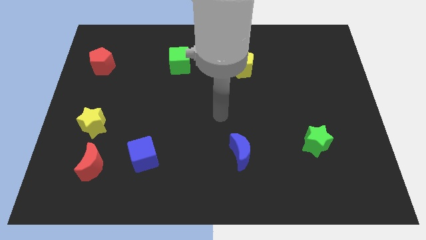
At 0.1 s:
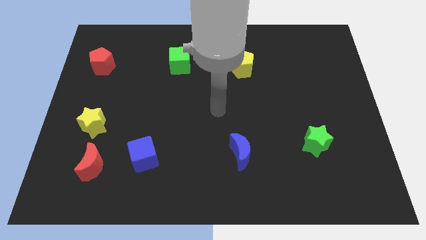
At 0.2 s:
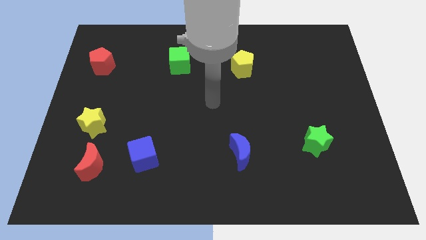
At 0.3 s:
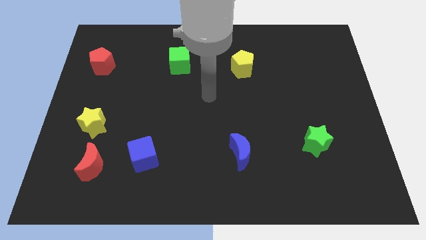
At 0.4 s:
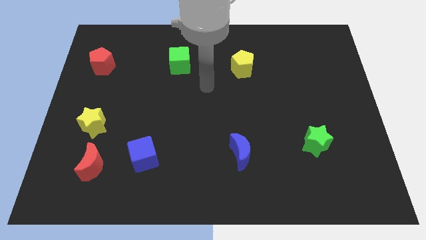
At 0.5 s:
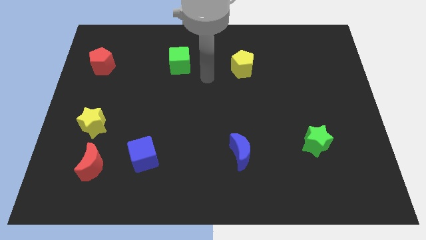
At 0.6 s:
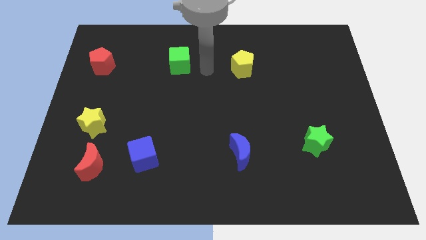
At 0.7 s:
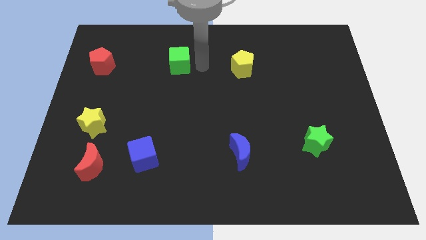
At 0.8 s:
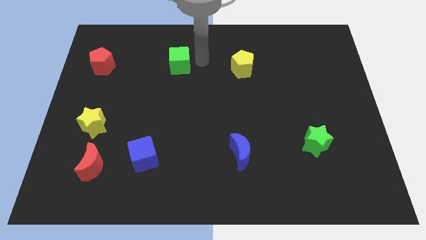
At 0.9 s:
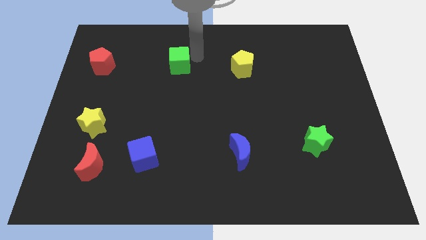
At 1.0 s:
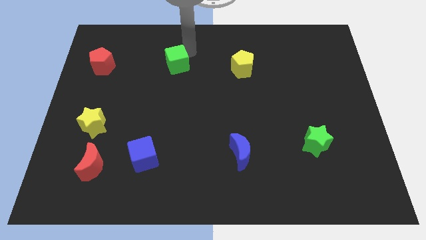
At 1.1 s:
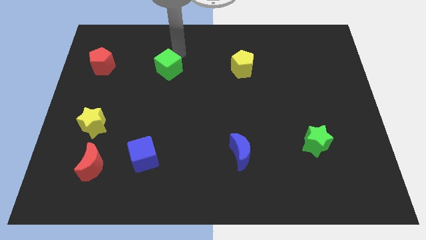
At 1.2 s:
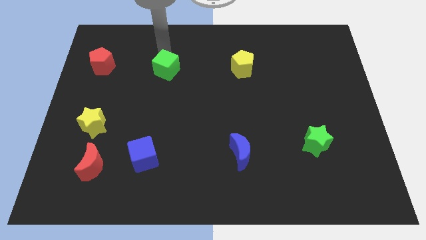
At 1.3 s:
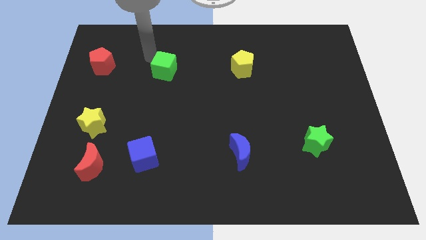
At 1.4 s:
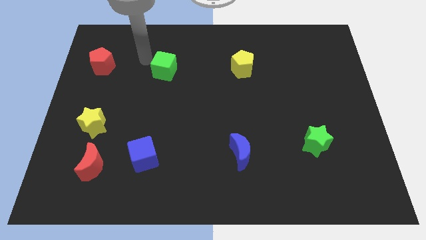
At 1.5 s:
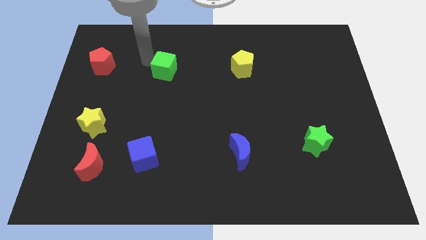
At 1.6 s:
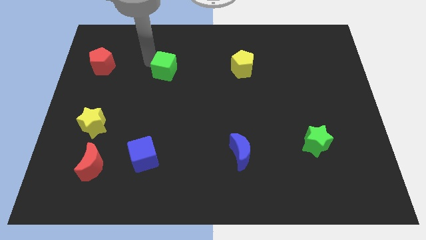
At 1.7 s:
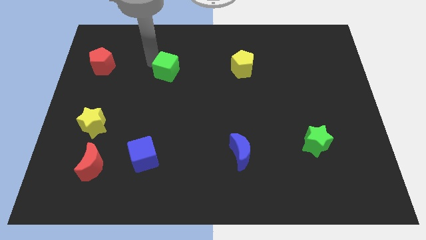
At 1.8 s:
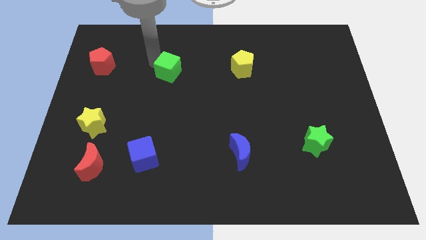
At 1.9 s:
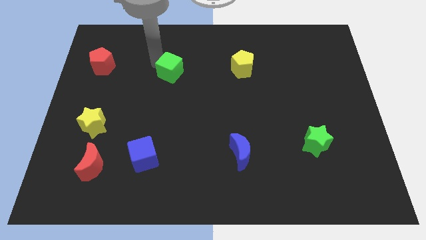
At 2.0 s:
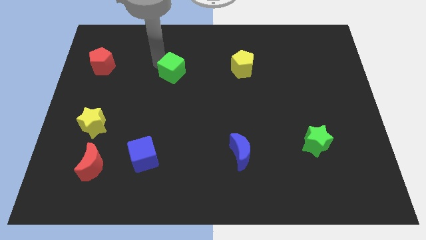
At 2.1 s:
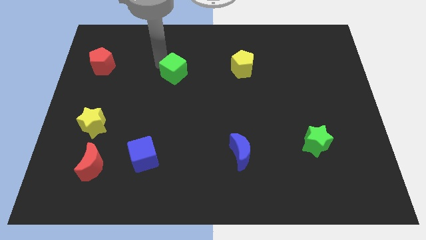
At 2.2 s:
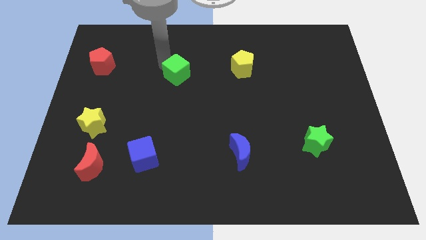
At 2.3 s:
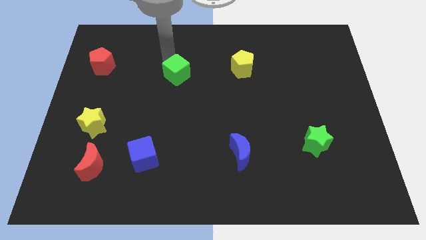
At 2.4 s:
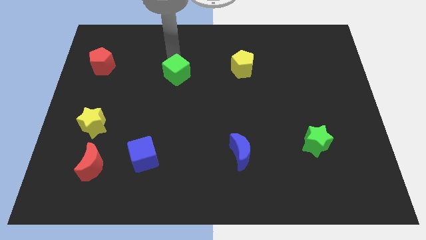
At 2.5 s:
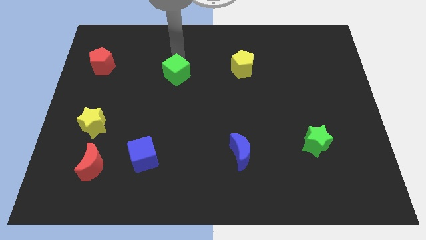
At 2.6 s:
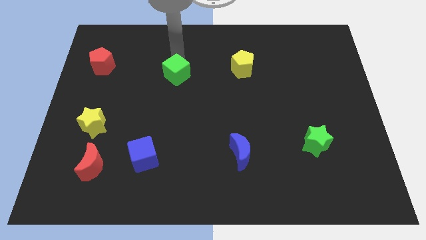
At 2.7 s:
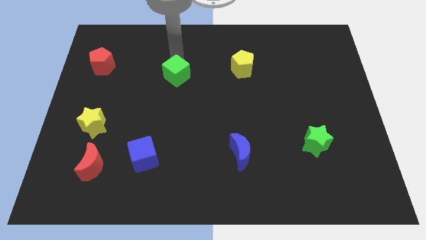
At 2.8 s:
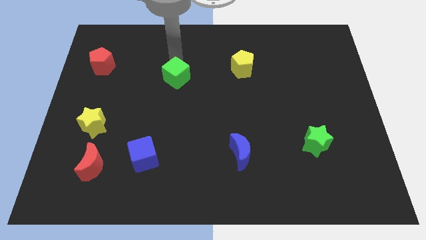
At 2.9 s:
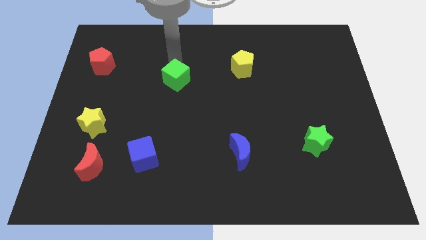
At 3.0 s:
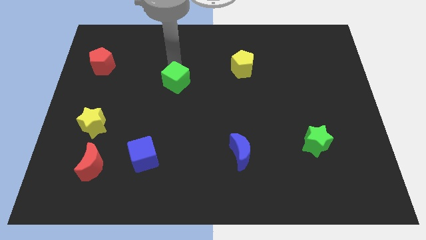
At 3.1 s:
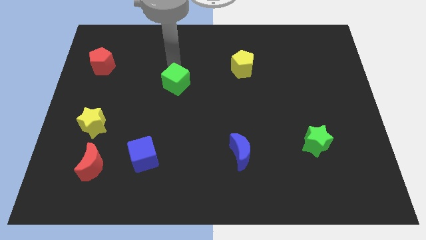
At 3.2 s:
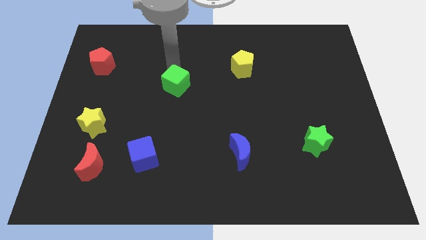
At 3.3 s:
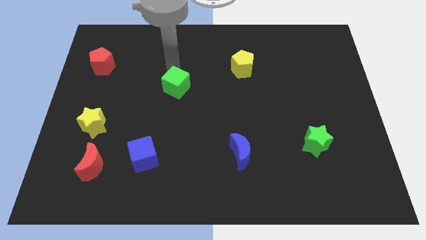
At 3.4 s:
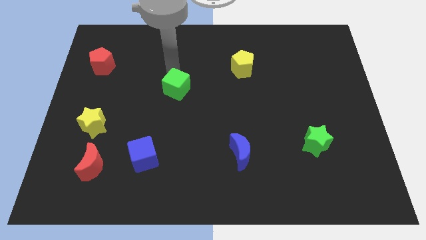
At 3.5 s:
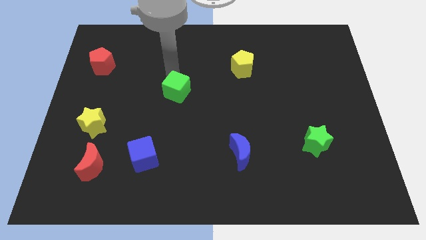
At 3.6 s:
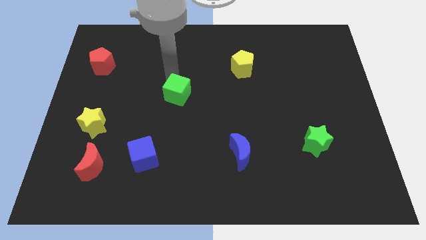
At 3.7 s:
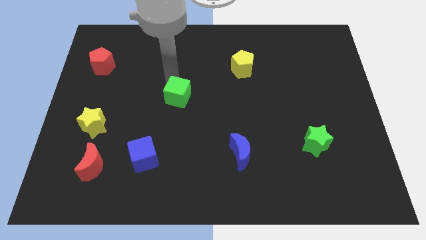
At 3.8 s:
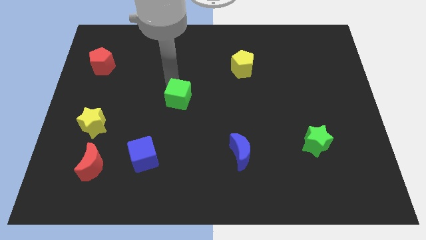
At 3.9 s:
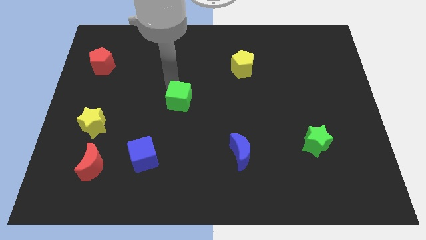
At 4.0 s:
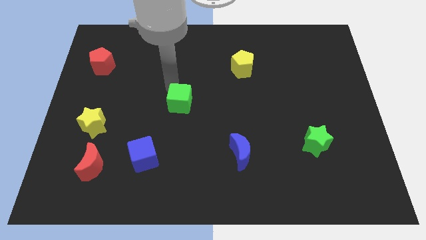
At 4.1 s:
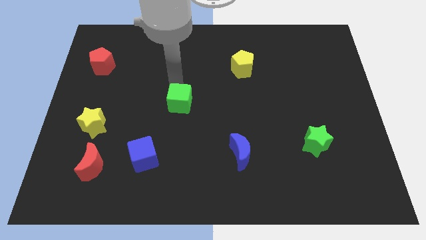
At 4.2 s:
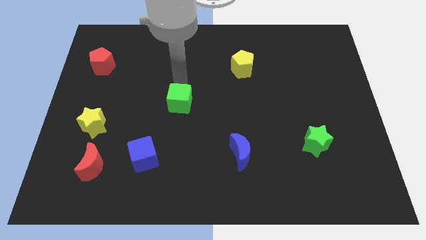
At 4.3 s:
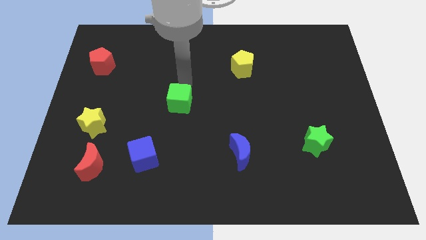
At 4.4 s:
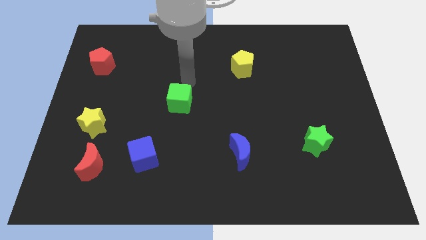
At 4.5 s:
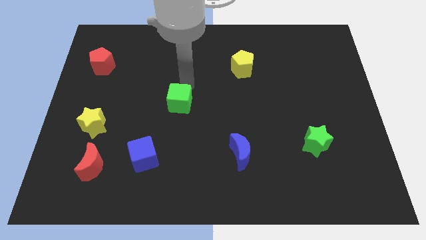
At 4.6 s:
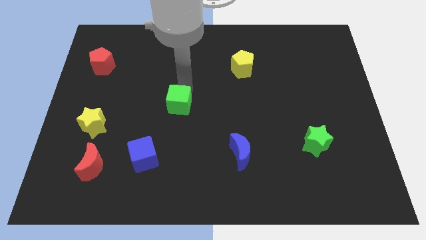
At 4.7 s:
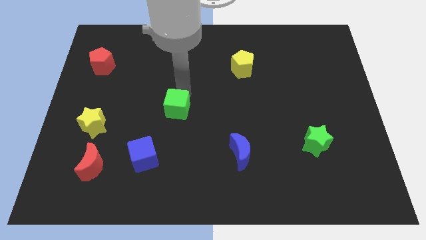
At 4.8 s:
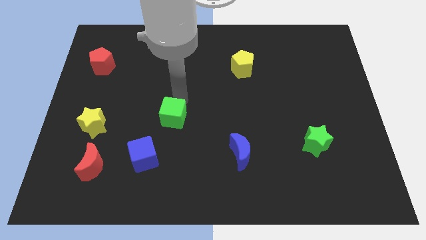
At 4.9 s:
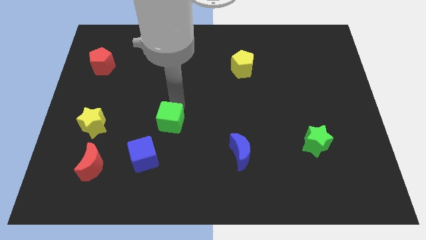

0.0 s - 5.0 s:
move the green cube diagonally up and to the right of the blue cube

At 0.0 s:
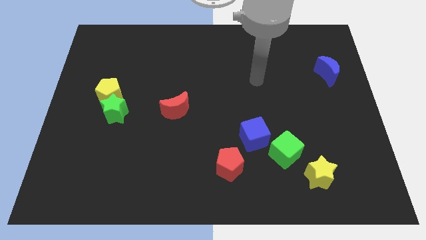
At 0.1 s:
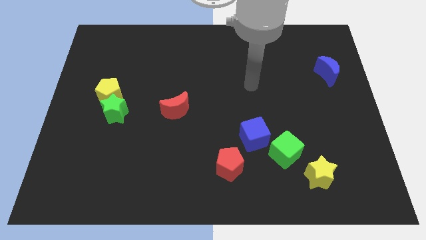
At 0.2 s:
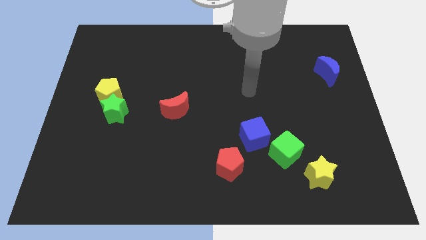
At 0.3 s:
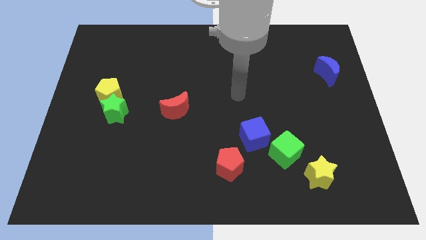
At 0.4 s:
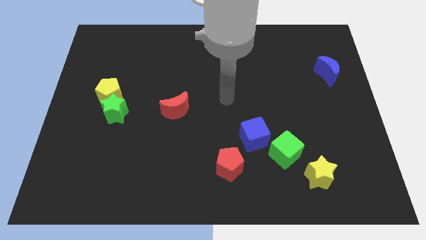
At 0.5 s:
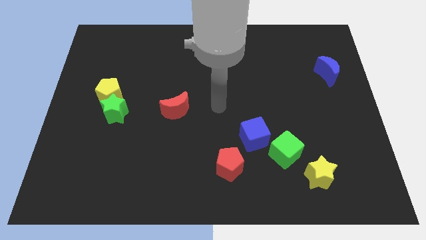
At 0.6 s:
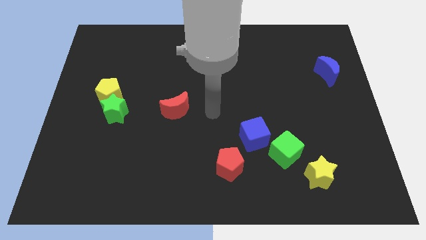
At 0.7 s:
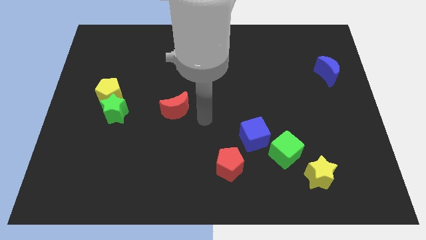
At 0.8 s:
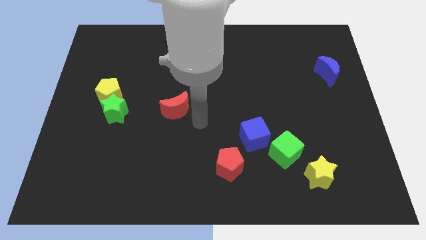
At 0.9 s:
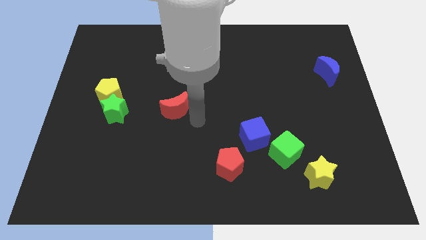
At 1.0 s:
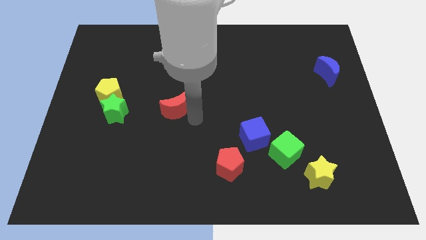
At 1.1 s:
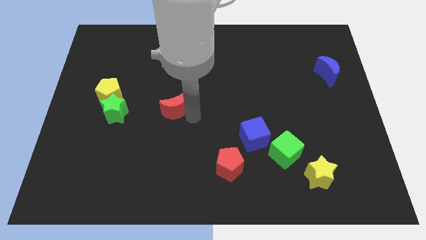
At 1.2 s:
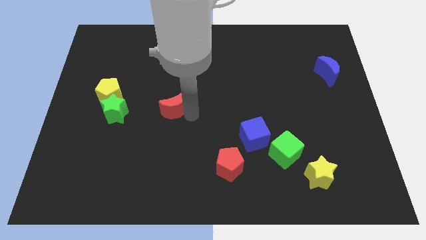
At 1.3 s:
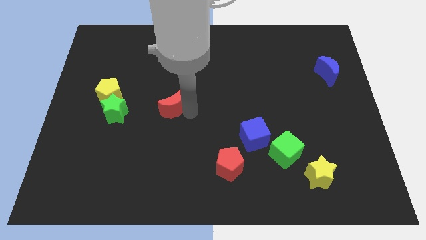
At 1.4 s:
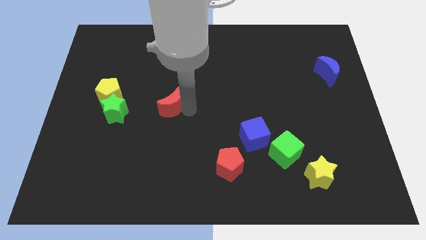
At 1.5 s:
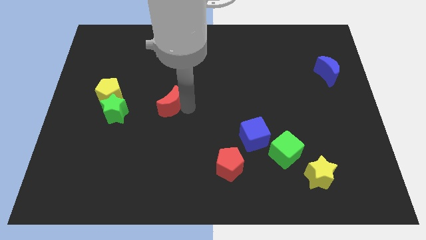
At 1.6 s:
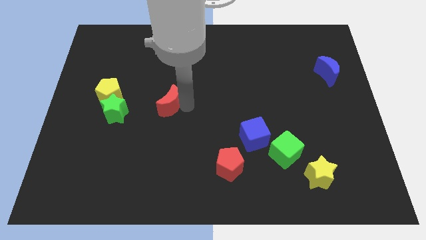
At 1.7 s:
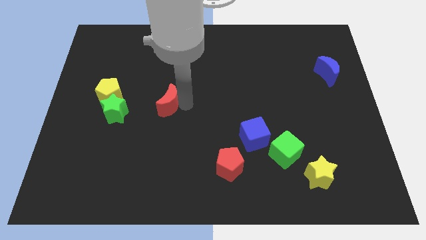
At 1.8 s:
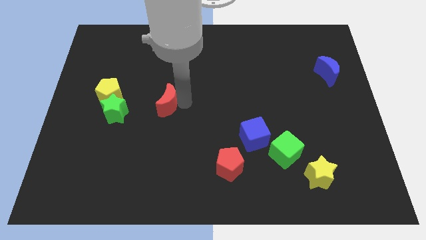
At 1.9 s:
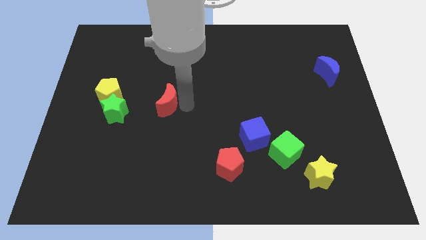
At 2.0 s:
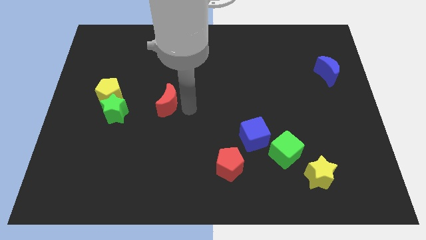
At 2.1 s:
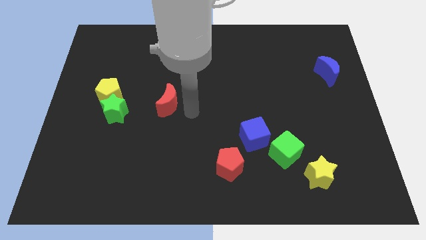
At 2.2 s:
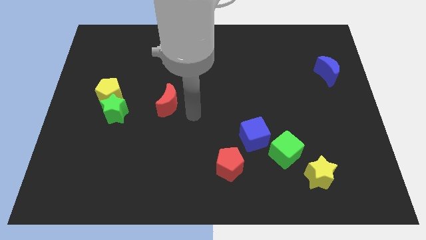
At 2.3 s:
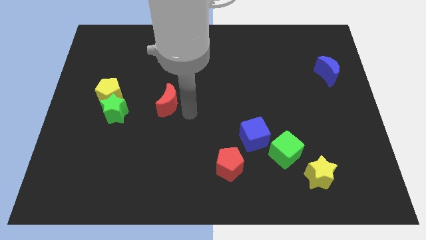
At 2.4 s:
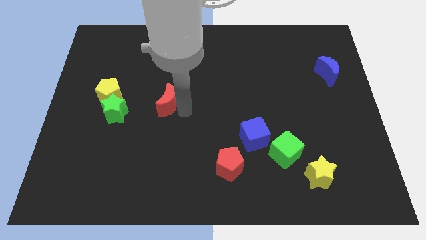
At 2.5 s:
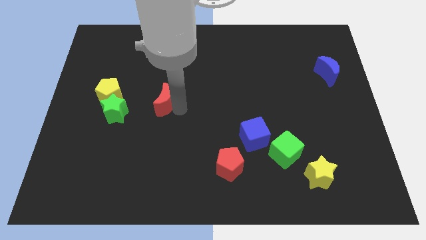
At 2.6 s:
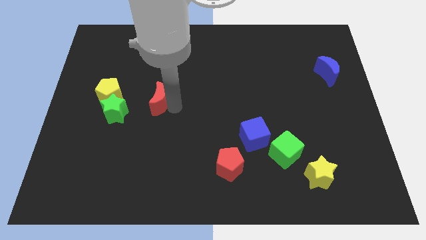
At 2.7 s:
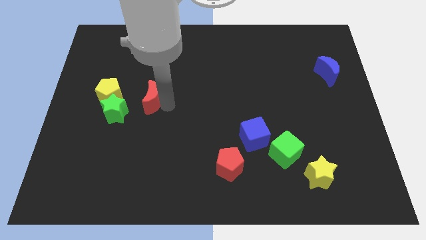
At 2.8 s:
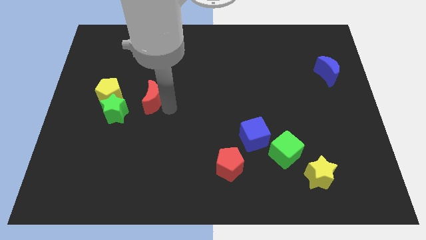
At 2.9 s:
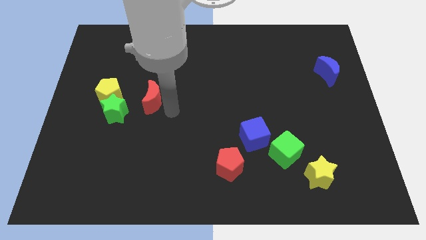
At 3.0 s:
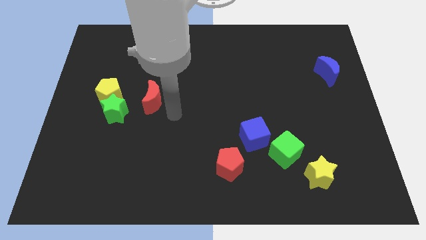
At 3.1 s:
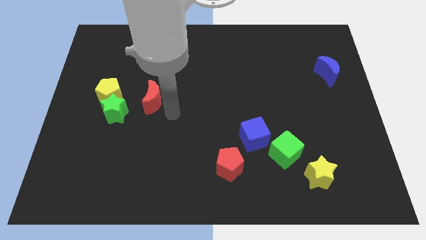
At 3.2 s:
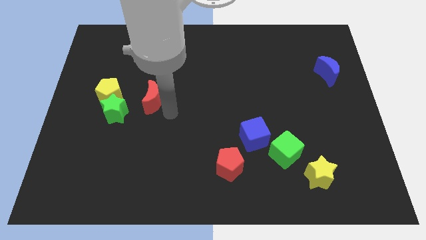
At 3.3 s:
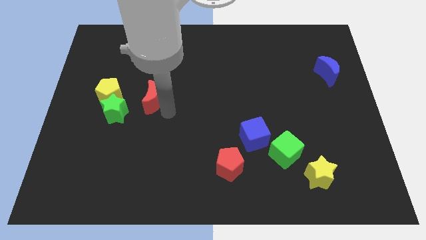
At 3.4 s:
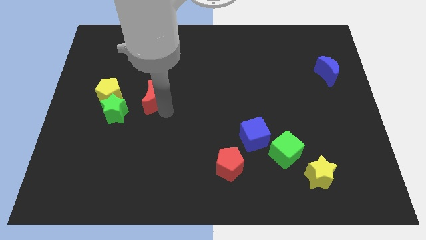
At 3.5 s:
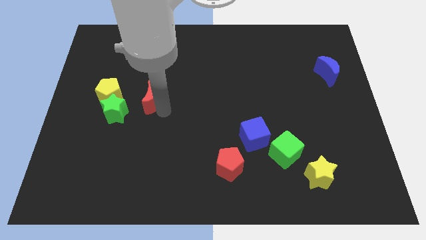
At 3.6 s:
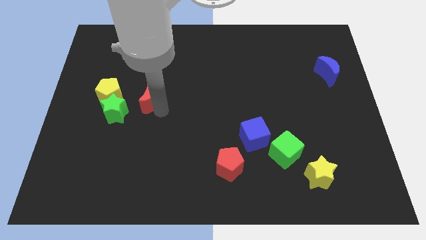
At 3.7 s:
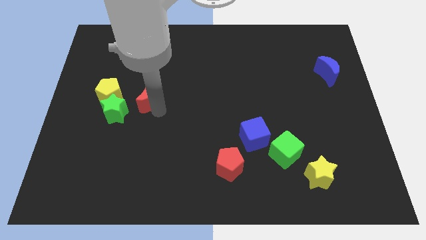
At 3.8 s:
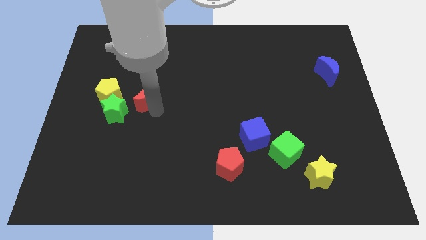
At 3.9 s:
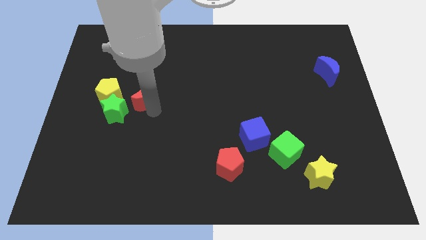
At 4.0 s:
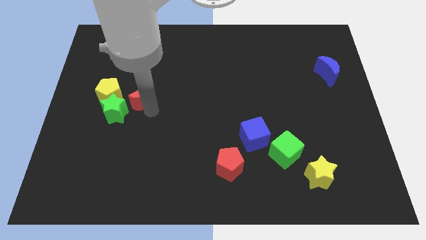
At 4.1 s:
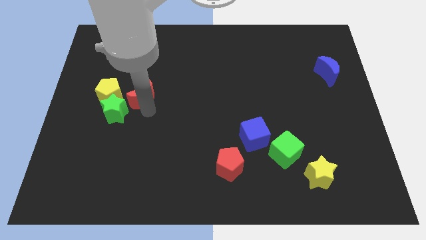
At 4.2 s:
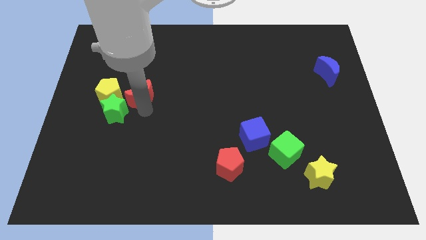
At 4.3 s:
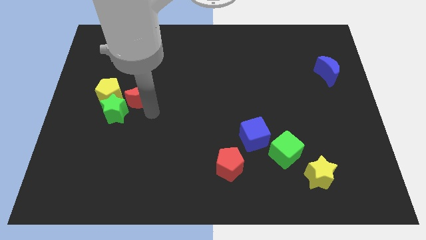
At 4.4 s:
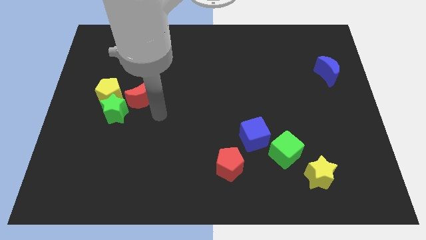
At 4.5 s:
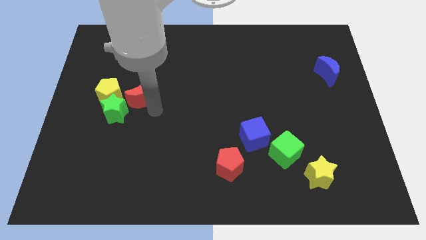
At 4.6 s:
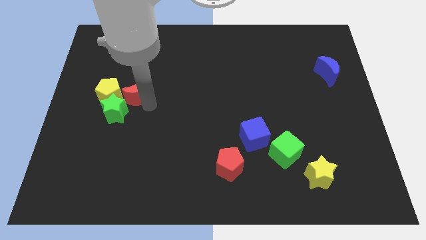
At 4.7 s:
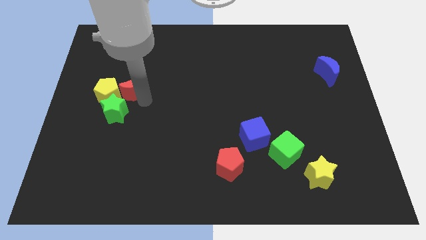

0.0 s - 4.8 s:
slide the red moon to the top side of the green star
